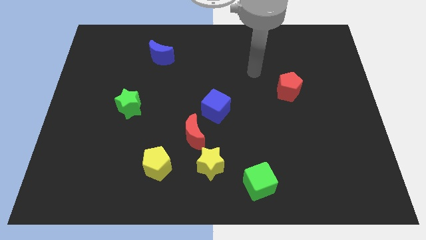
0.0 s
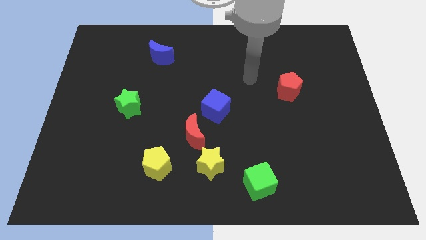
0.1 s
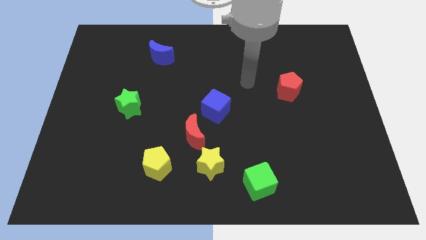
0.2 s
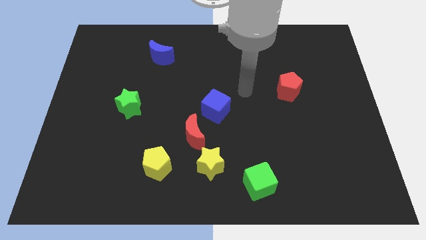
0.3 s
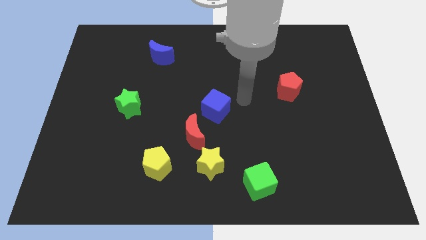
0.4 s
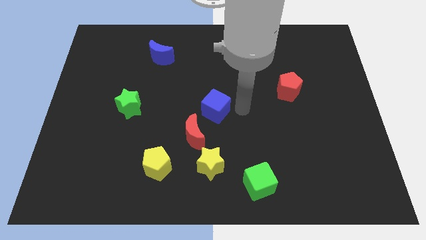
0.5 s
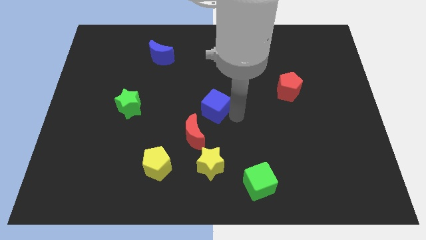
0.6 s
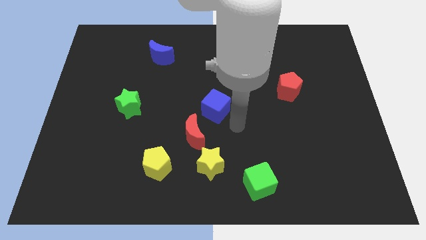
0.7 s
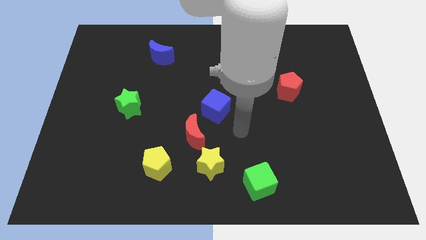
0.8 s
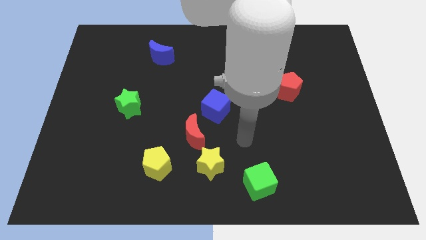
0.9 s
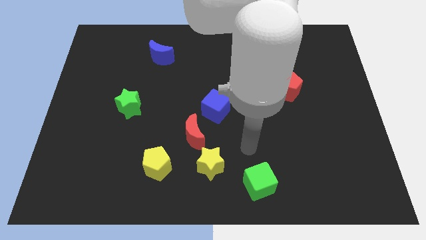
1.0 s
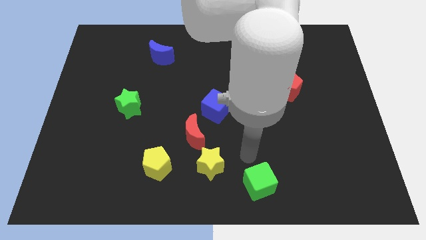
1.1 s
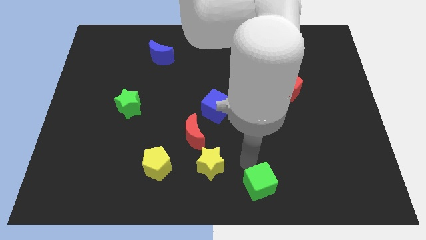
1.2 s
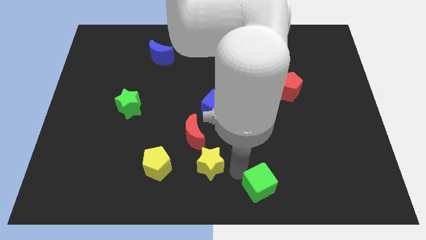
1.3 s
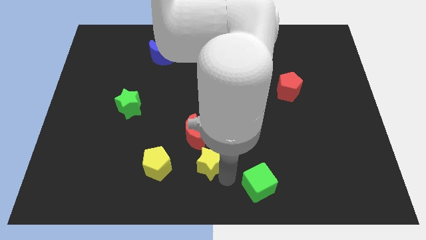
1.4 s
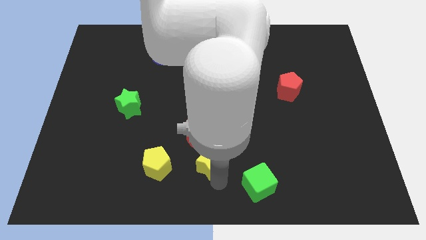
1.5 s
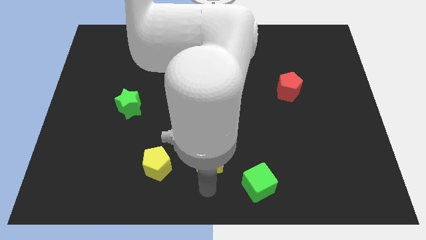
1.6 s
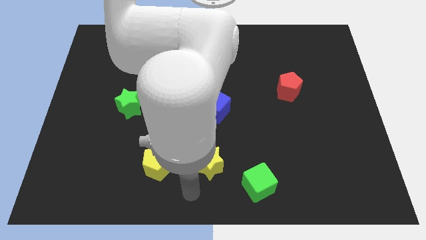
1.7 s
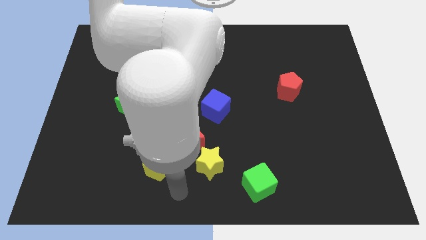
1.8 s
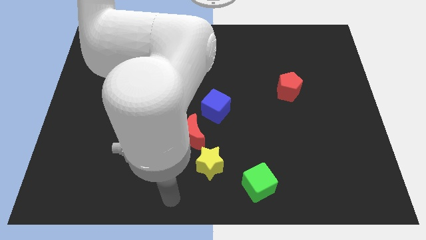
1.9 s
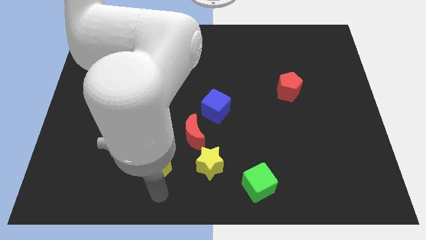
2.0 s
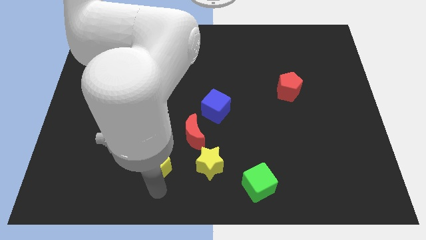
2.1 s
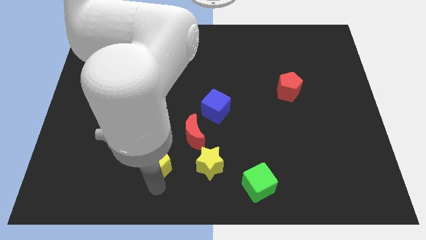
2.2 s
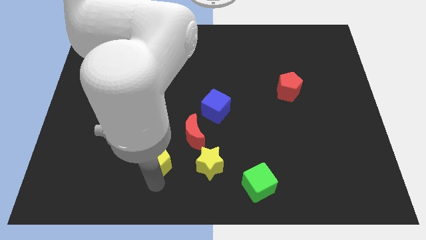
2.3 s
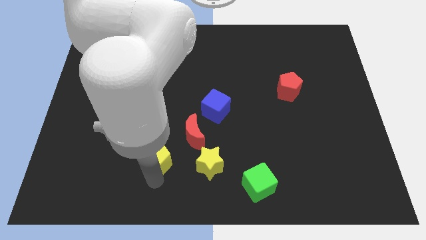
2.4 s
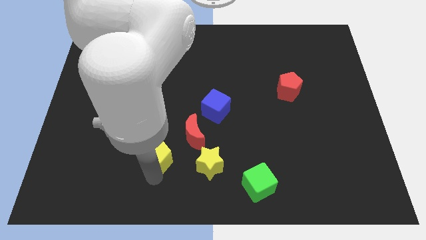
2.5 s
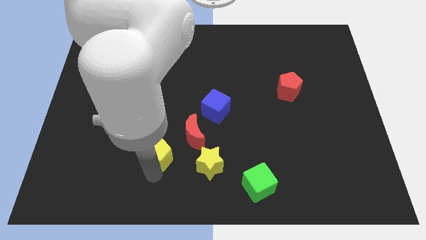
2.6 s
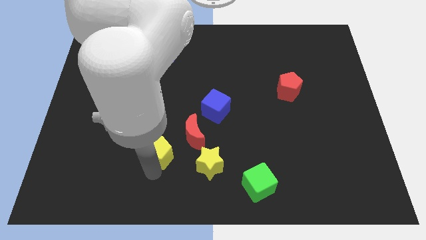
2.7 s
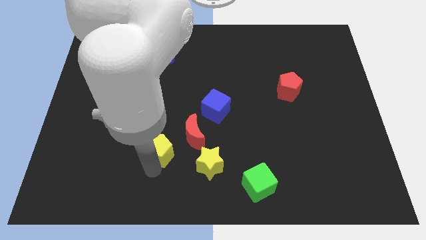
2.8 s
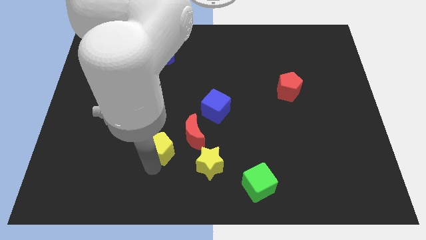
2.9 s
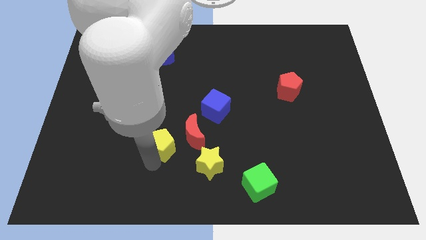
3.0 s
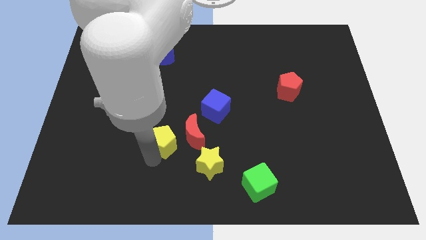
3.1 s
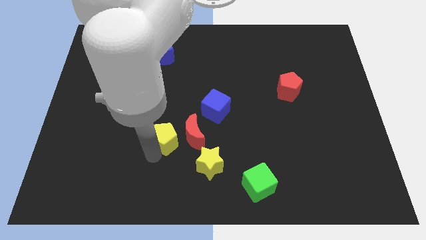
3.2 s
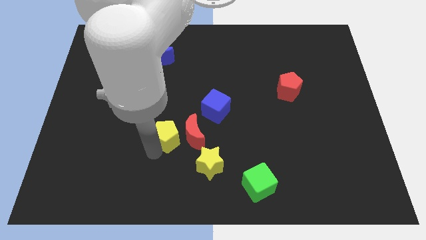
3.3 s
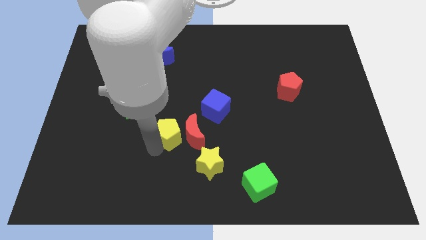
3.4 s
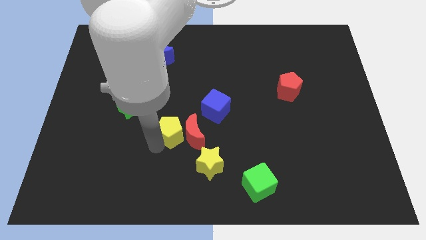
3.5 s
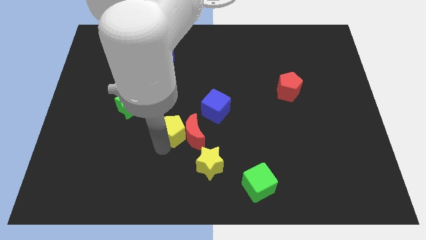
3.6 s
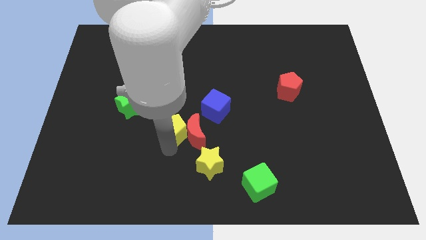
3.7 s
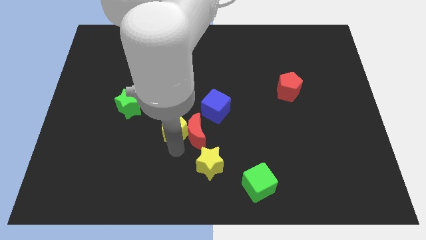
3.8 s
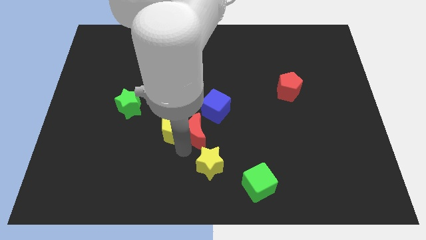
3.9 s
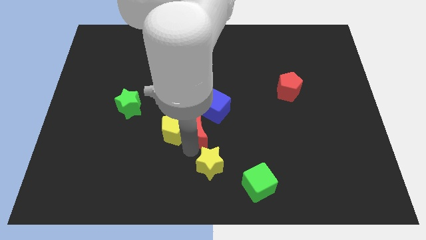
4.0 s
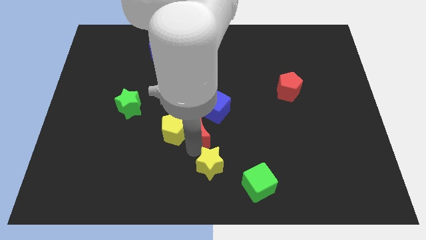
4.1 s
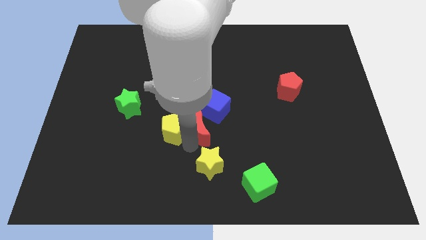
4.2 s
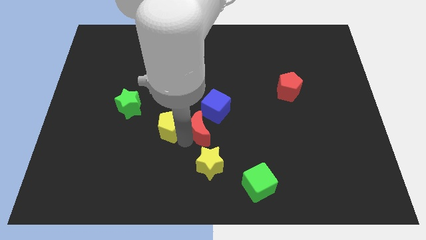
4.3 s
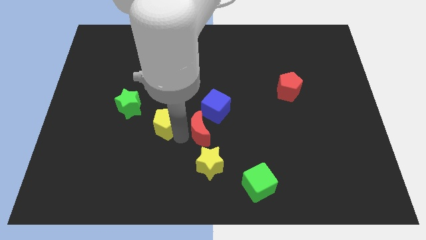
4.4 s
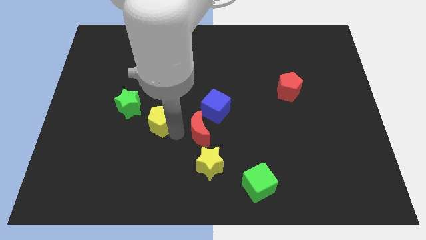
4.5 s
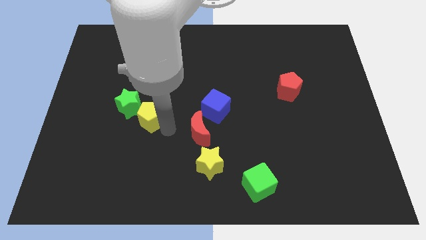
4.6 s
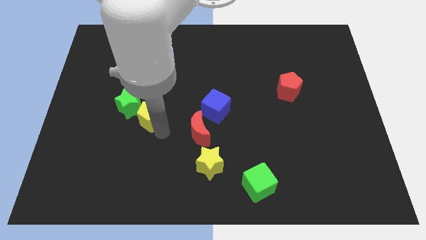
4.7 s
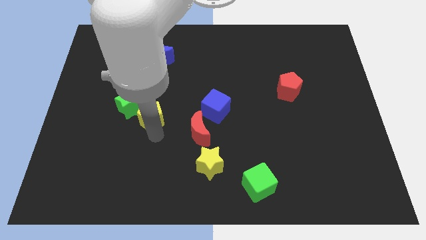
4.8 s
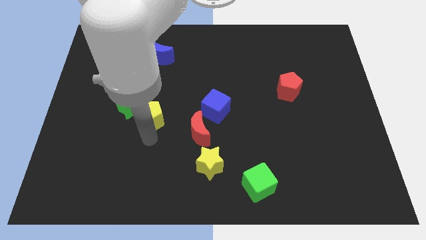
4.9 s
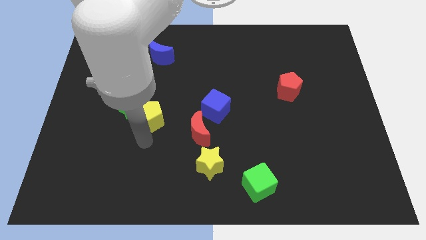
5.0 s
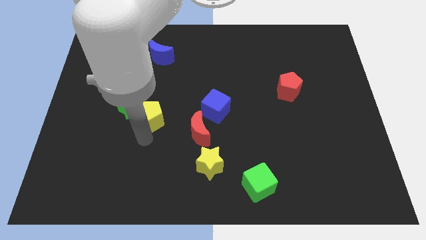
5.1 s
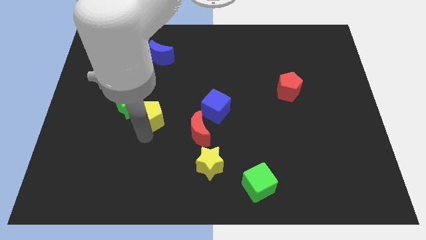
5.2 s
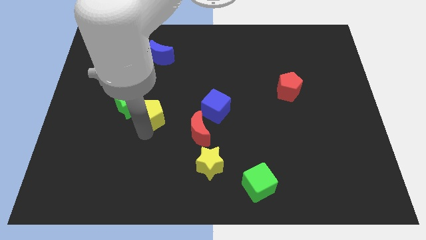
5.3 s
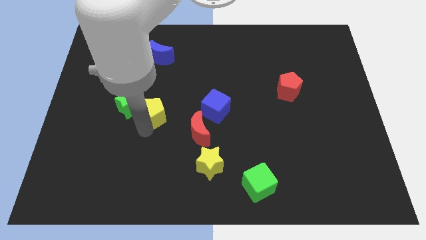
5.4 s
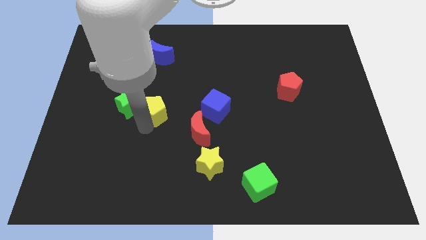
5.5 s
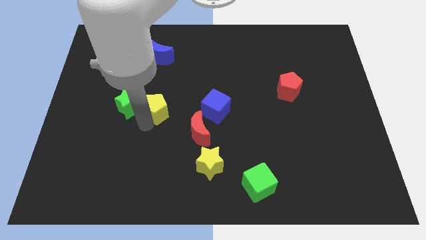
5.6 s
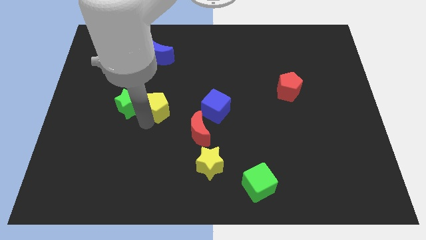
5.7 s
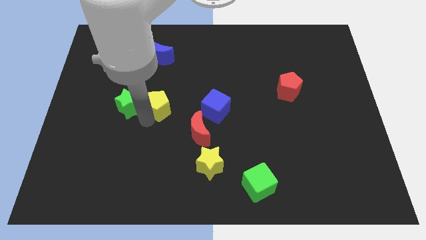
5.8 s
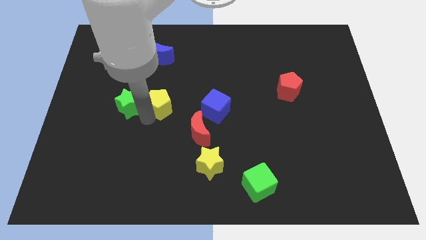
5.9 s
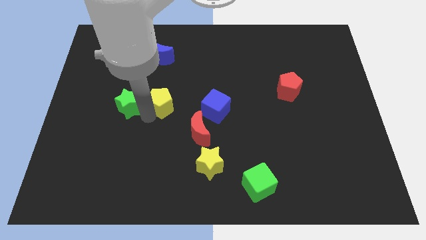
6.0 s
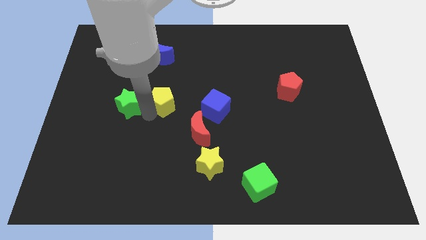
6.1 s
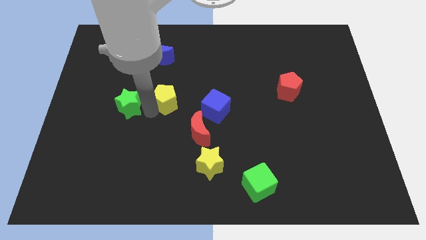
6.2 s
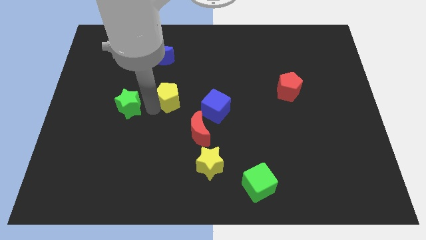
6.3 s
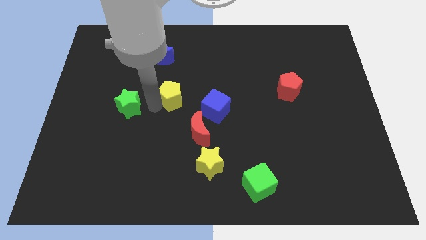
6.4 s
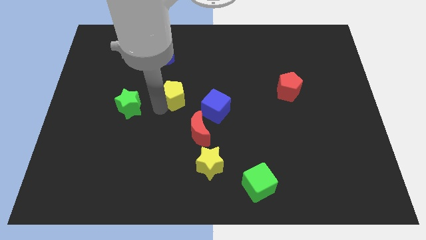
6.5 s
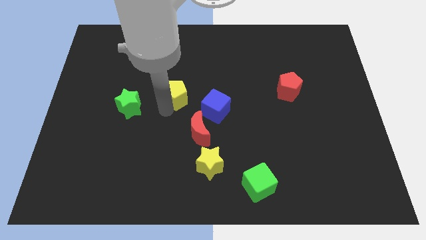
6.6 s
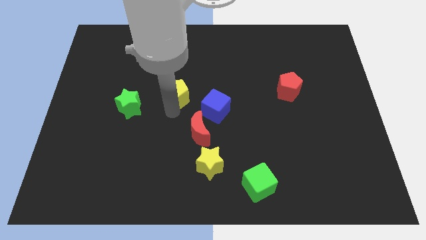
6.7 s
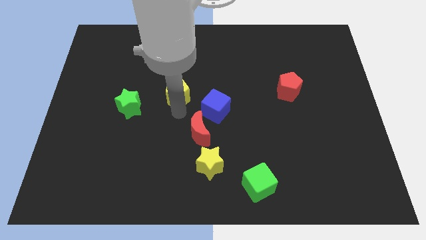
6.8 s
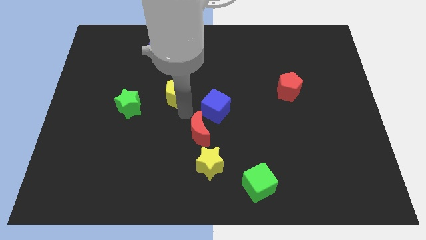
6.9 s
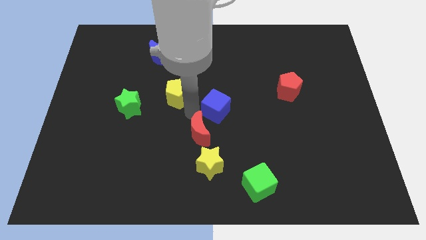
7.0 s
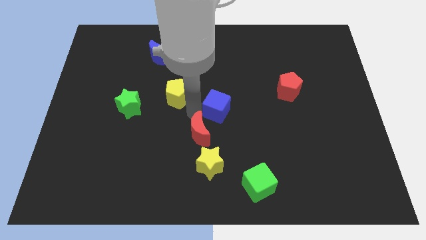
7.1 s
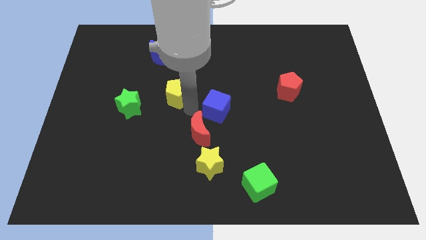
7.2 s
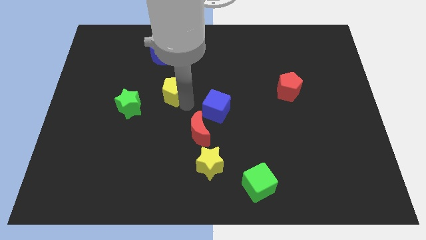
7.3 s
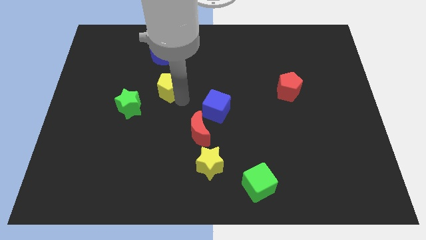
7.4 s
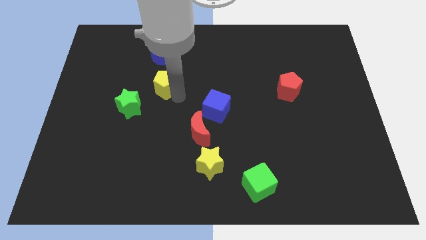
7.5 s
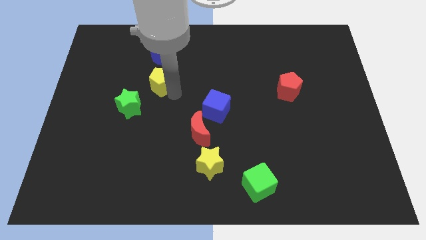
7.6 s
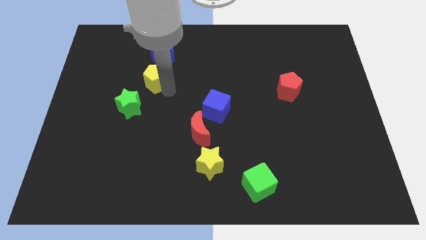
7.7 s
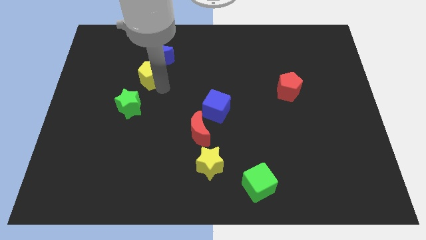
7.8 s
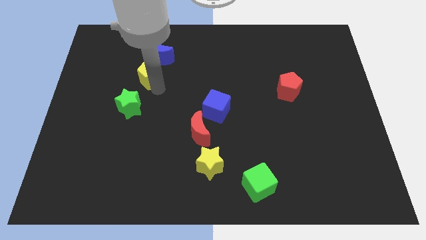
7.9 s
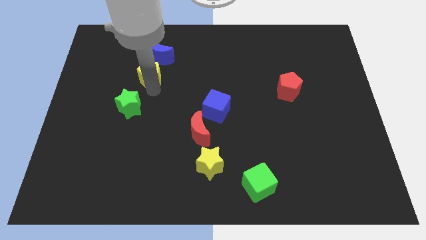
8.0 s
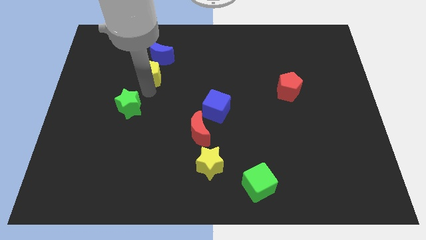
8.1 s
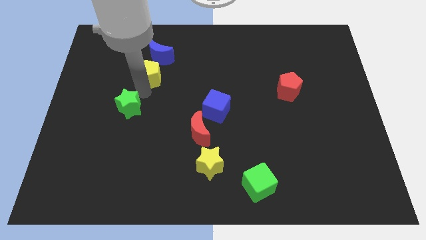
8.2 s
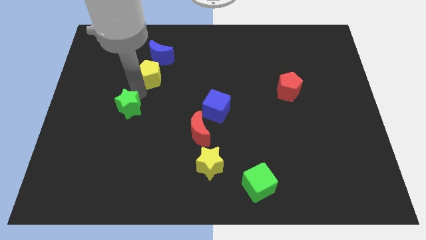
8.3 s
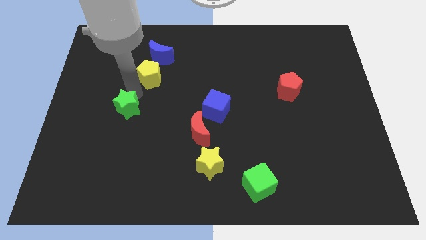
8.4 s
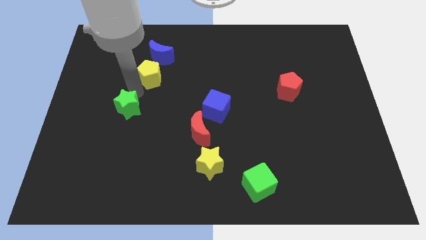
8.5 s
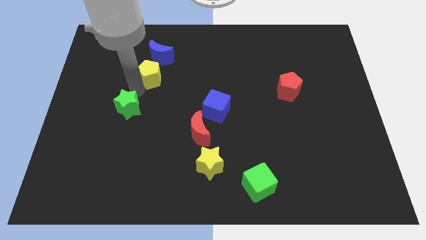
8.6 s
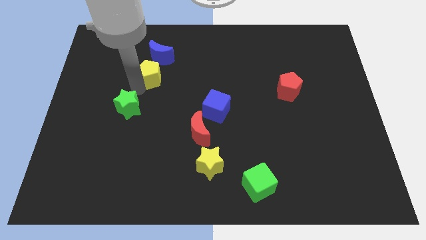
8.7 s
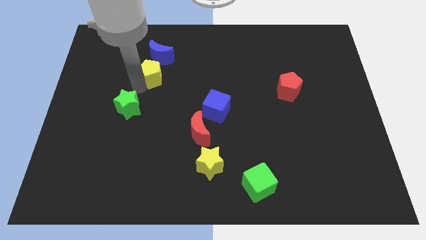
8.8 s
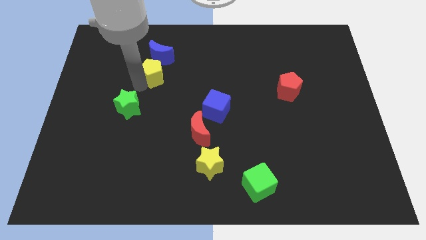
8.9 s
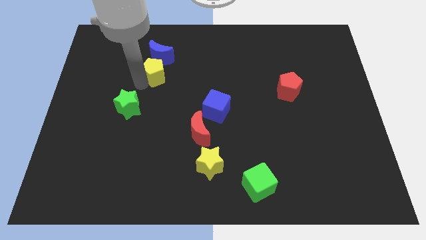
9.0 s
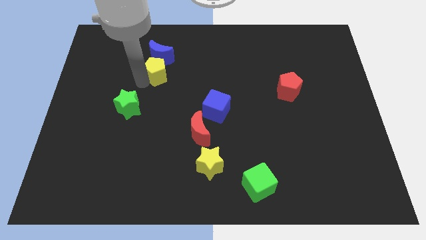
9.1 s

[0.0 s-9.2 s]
push the yellow pentagon towards the blue moon
